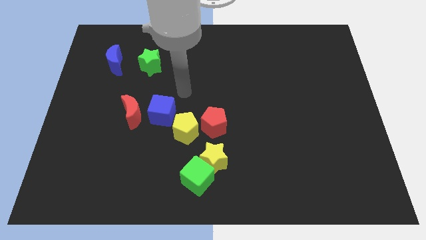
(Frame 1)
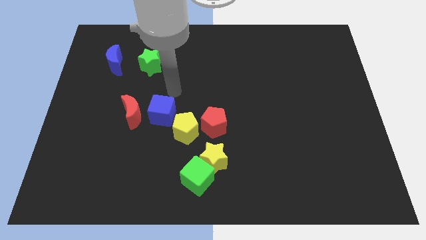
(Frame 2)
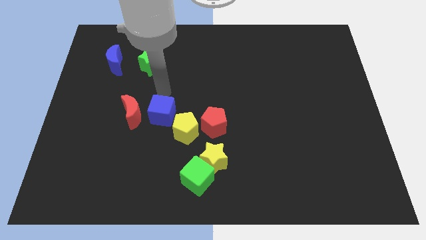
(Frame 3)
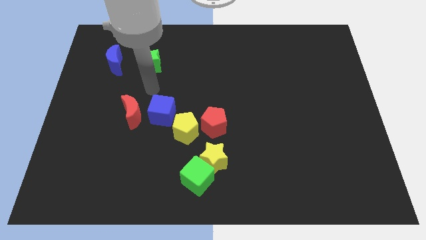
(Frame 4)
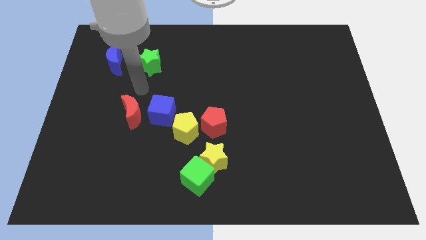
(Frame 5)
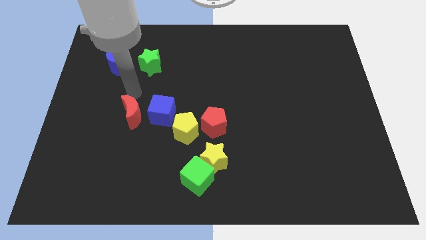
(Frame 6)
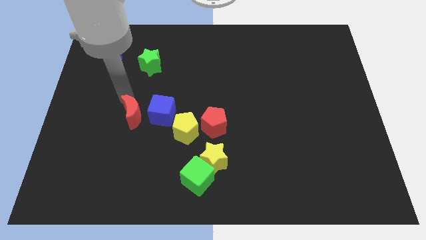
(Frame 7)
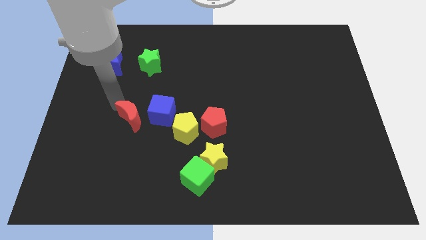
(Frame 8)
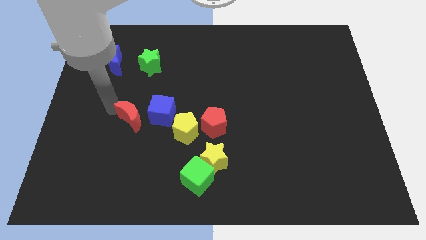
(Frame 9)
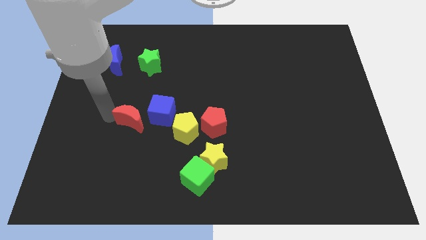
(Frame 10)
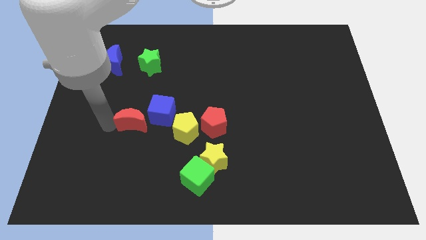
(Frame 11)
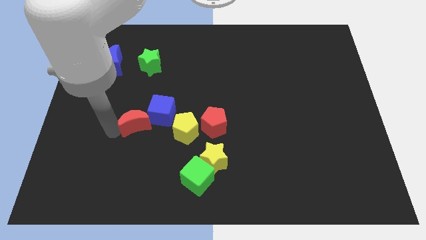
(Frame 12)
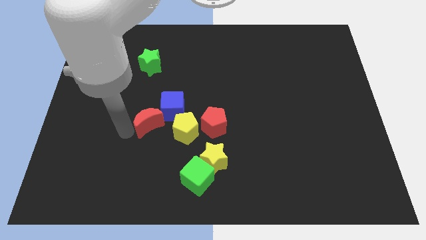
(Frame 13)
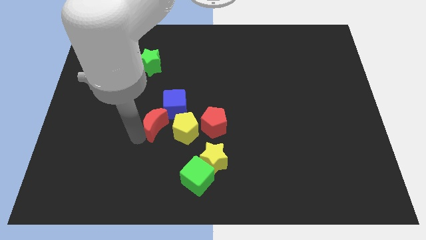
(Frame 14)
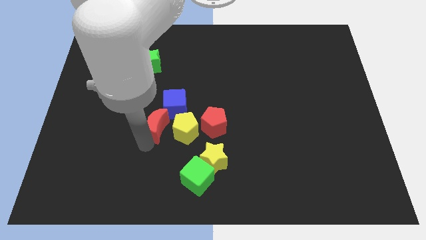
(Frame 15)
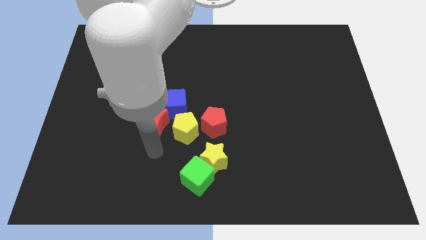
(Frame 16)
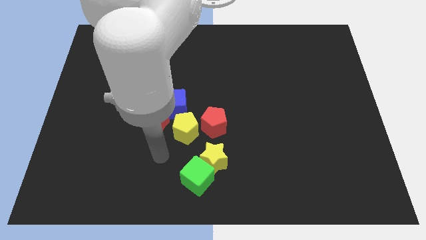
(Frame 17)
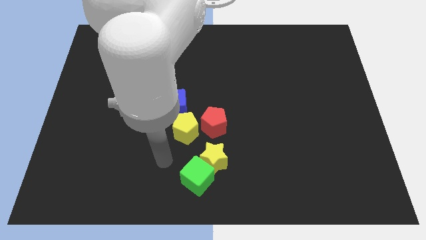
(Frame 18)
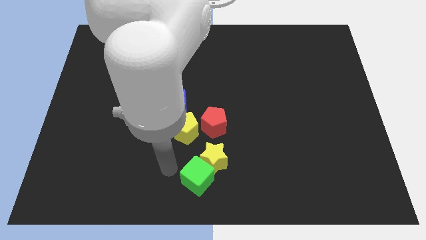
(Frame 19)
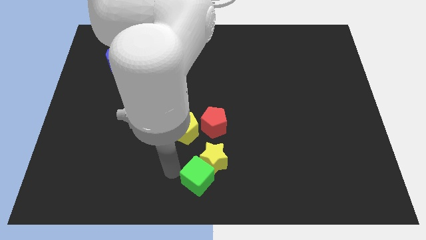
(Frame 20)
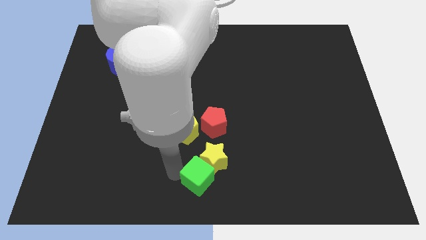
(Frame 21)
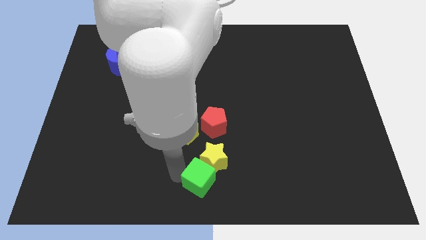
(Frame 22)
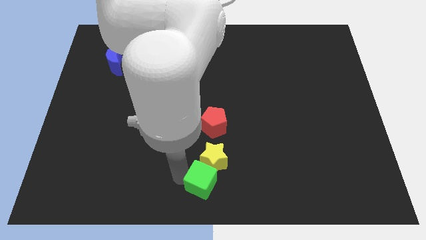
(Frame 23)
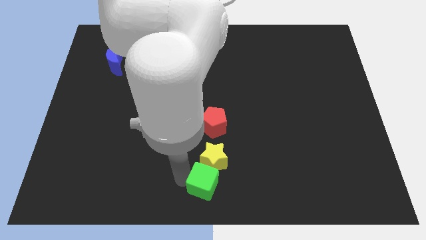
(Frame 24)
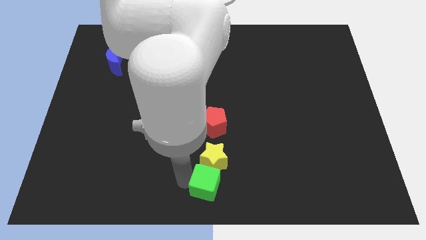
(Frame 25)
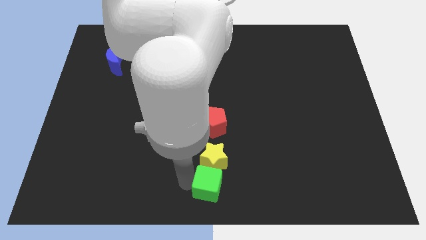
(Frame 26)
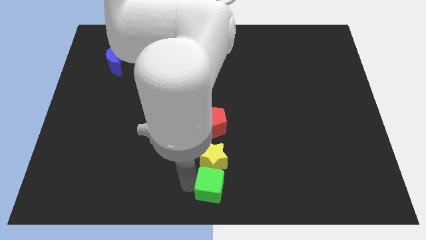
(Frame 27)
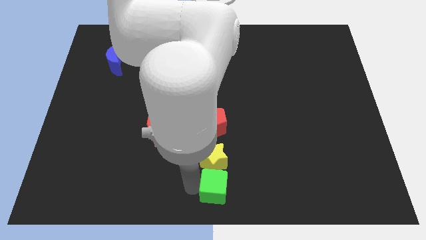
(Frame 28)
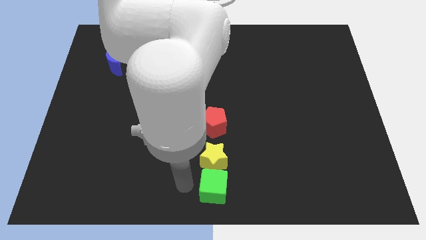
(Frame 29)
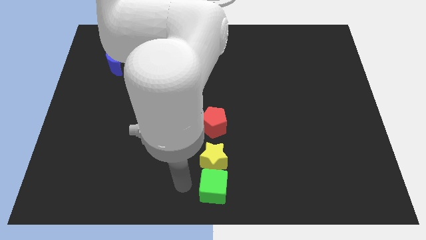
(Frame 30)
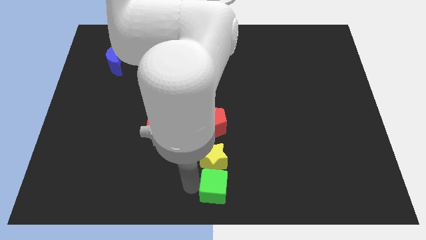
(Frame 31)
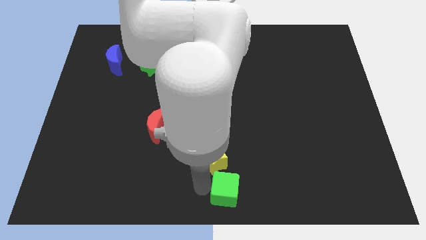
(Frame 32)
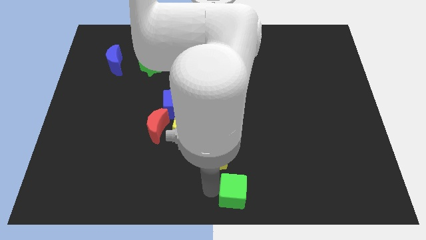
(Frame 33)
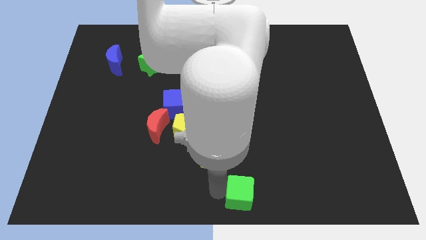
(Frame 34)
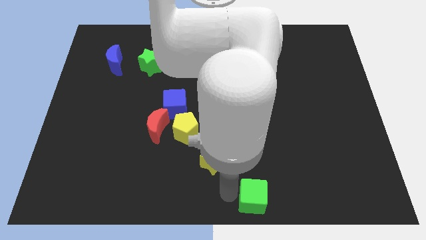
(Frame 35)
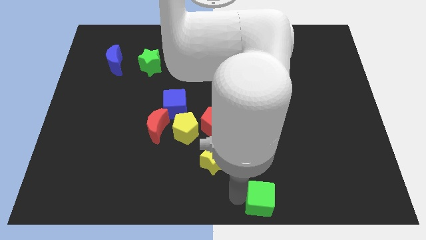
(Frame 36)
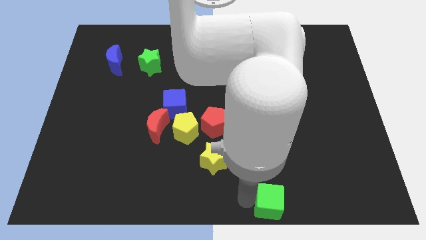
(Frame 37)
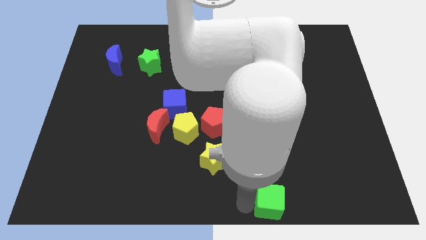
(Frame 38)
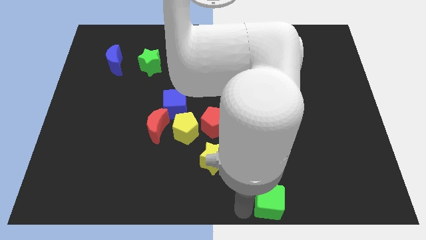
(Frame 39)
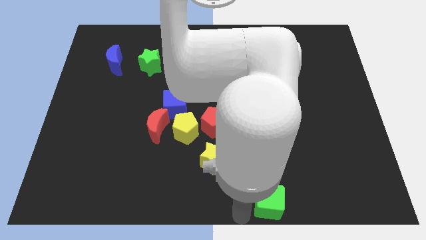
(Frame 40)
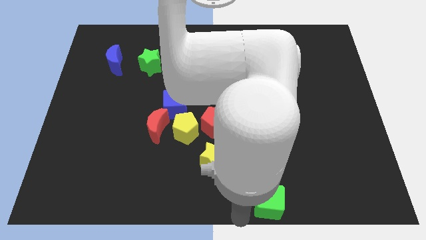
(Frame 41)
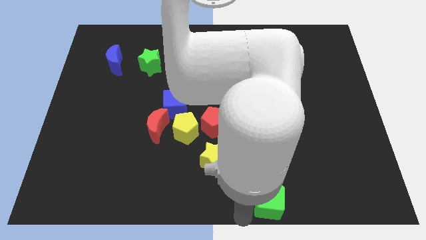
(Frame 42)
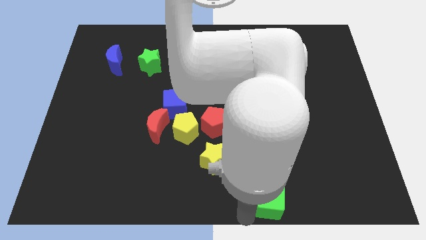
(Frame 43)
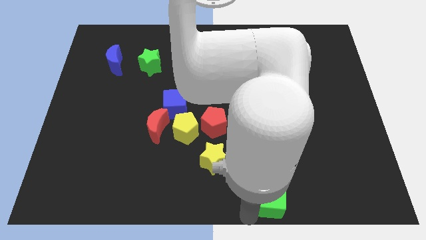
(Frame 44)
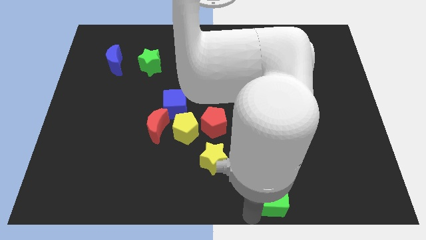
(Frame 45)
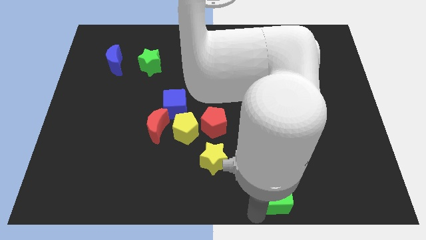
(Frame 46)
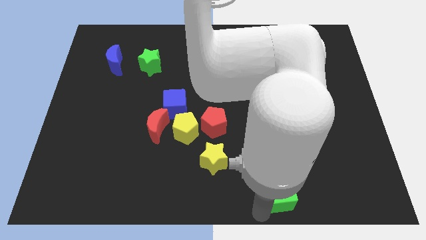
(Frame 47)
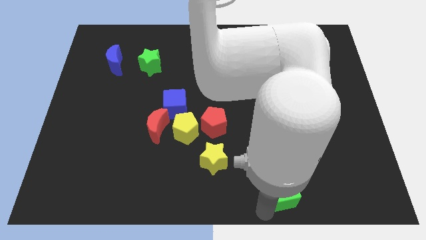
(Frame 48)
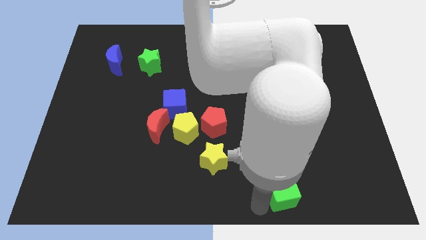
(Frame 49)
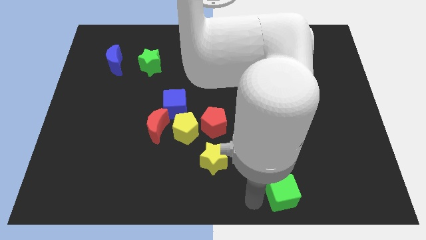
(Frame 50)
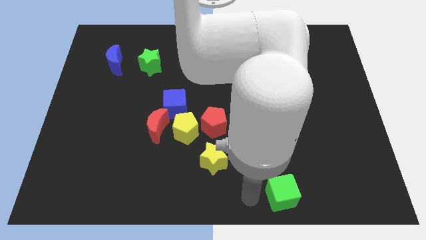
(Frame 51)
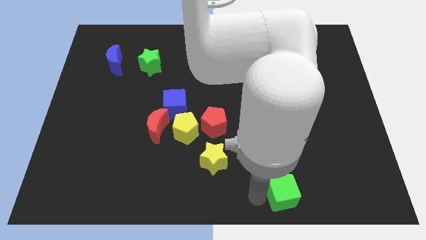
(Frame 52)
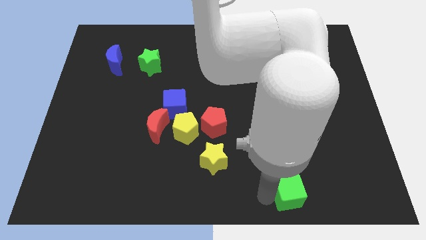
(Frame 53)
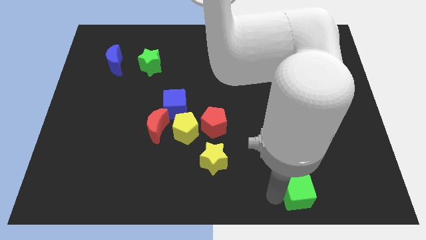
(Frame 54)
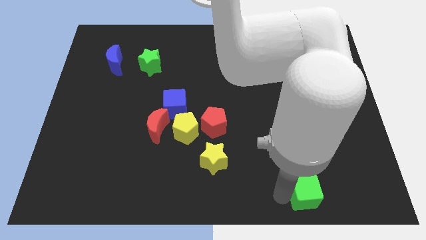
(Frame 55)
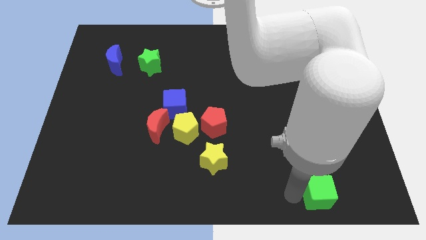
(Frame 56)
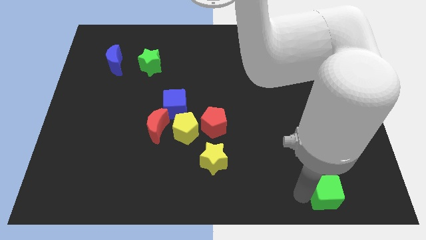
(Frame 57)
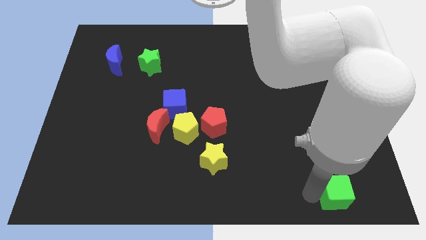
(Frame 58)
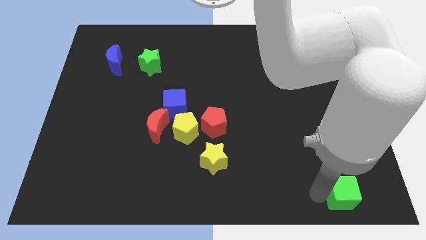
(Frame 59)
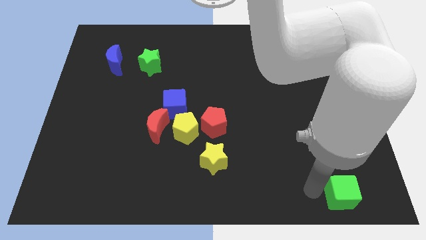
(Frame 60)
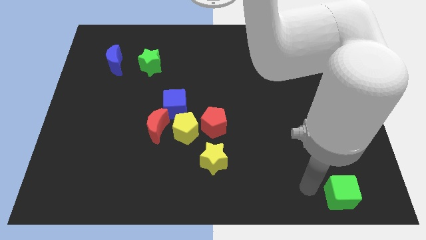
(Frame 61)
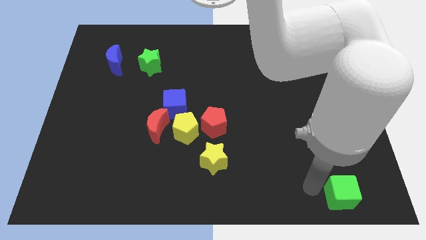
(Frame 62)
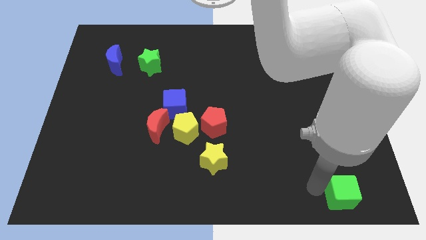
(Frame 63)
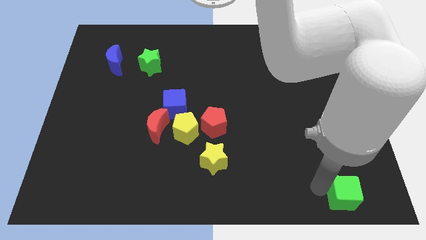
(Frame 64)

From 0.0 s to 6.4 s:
push the green cube to the lower right corner
